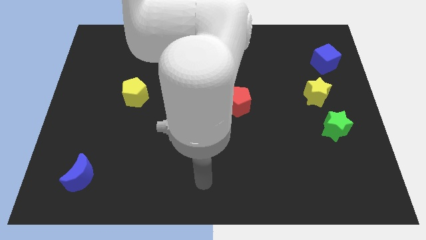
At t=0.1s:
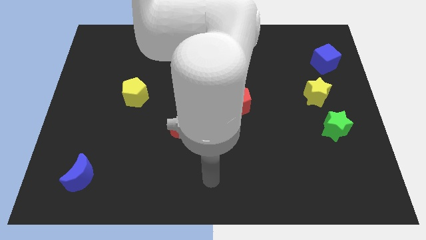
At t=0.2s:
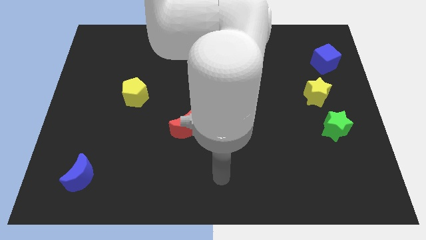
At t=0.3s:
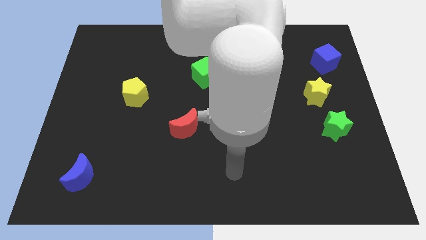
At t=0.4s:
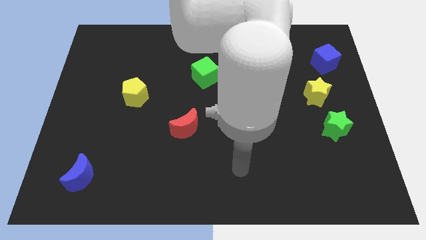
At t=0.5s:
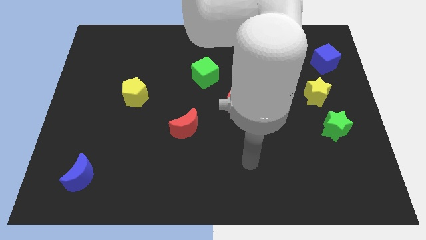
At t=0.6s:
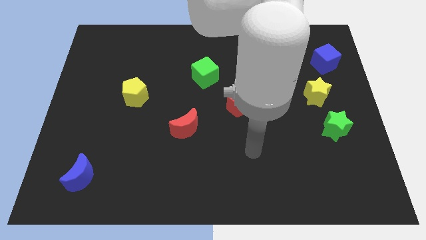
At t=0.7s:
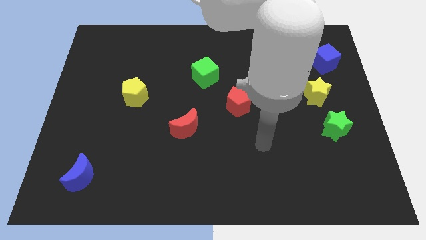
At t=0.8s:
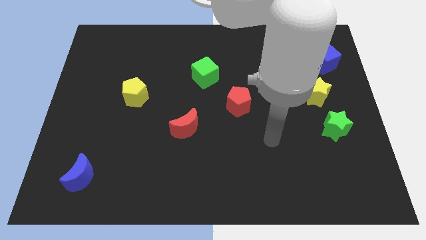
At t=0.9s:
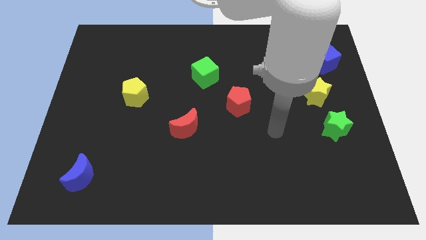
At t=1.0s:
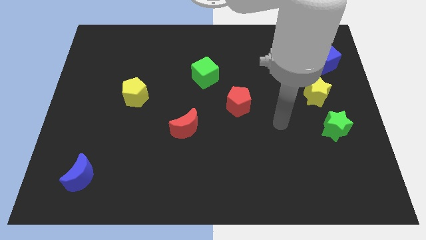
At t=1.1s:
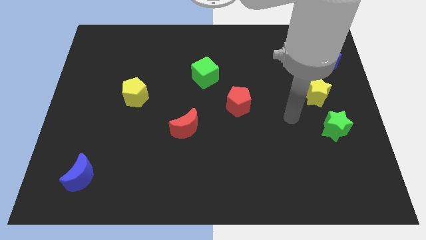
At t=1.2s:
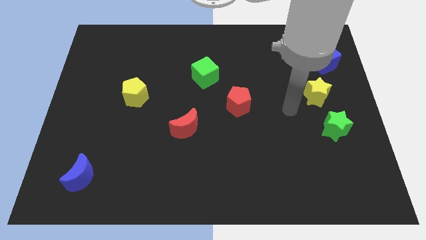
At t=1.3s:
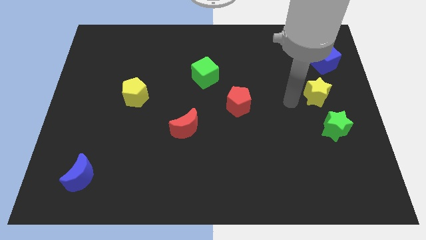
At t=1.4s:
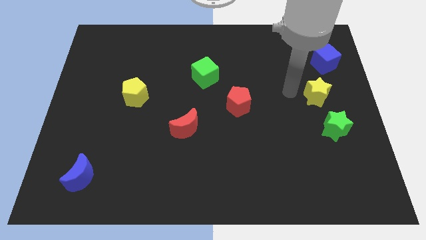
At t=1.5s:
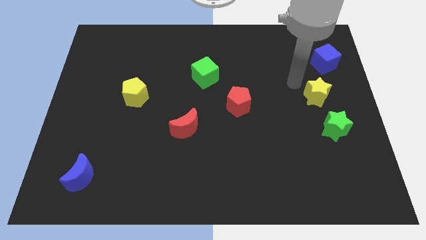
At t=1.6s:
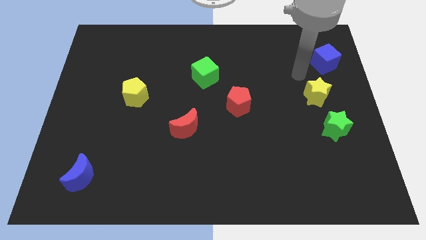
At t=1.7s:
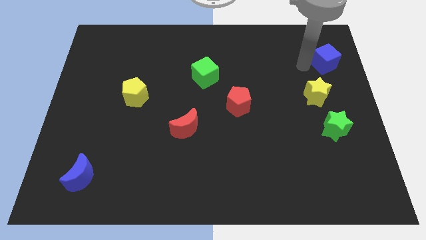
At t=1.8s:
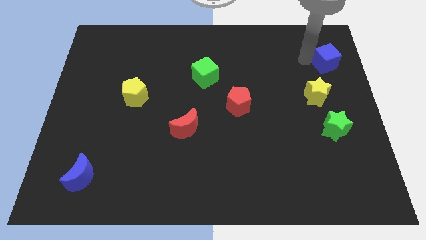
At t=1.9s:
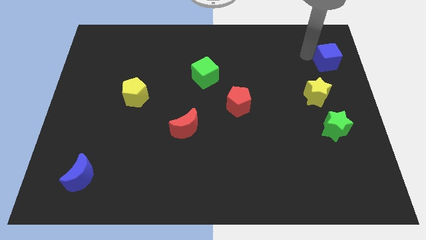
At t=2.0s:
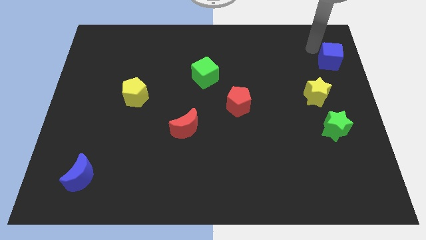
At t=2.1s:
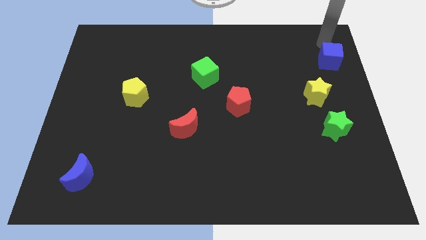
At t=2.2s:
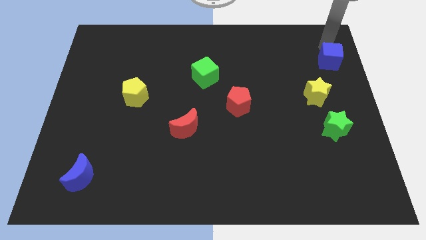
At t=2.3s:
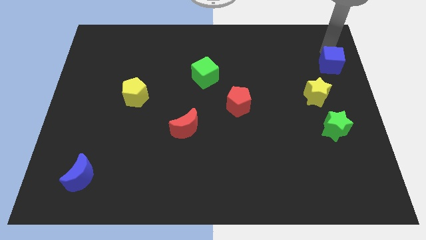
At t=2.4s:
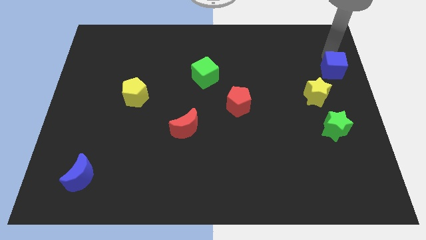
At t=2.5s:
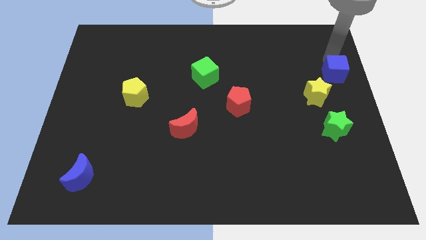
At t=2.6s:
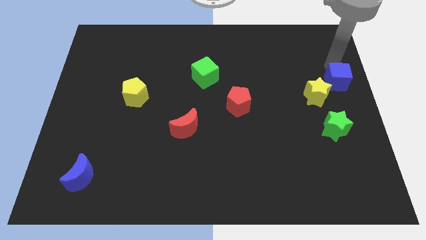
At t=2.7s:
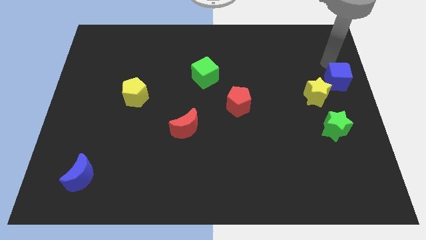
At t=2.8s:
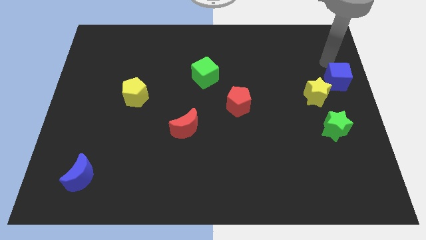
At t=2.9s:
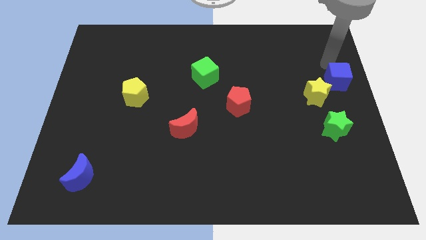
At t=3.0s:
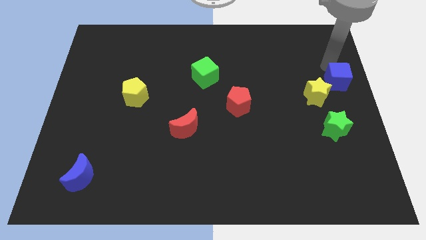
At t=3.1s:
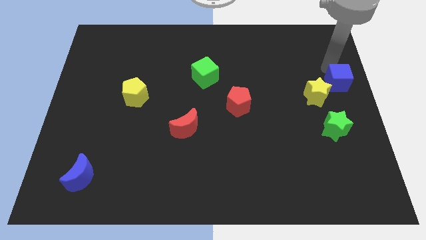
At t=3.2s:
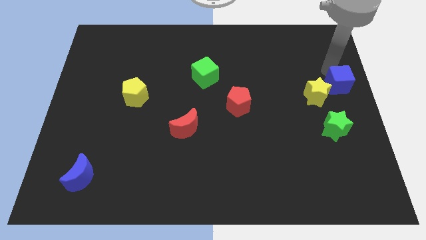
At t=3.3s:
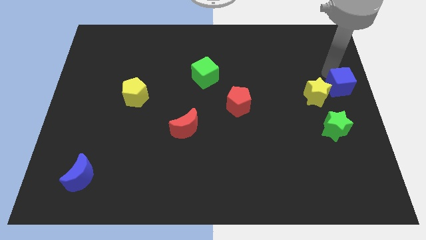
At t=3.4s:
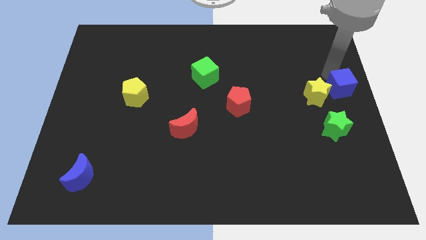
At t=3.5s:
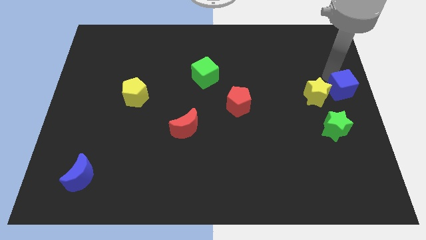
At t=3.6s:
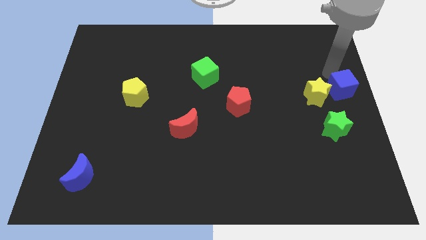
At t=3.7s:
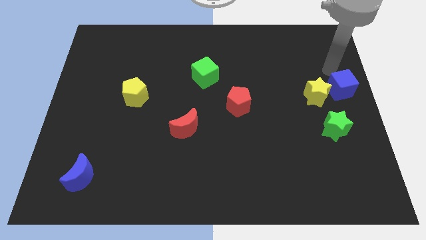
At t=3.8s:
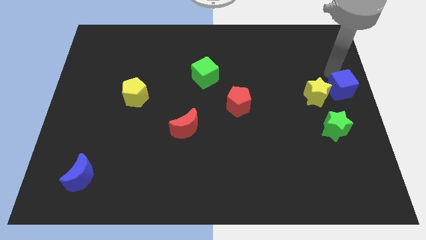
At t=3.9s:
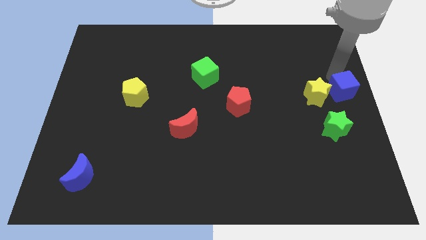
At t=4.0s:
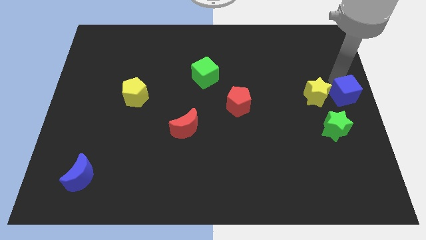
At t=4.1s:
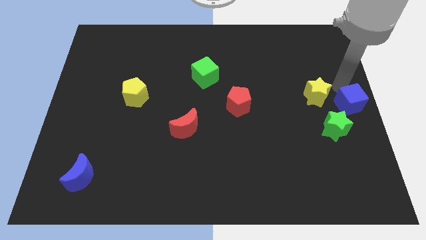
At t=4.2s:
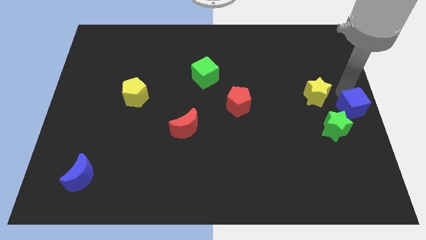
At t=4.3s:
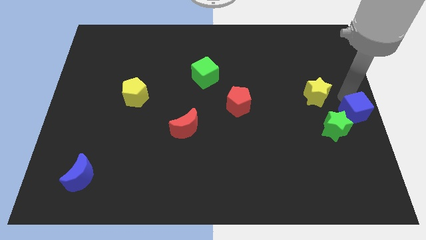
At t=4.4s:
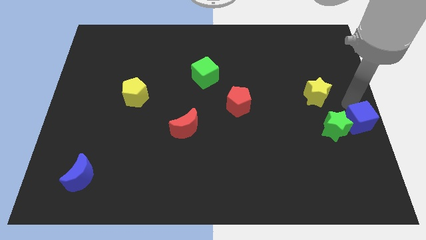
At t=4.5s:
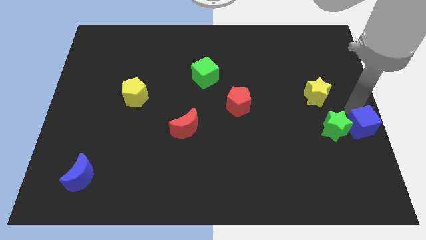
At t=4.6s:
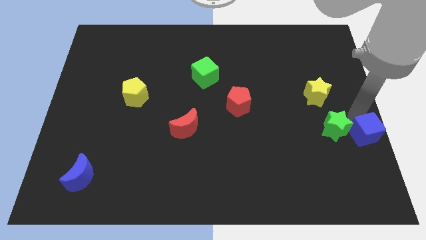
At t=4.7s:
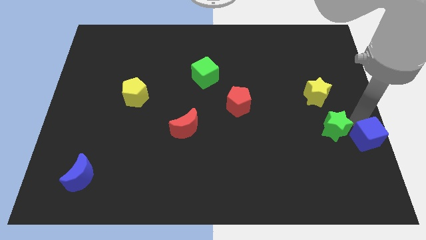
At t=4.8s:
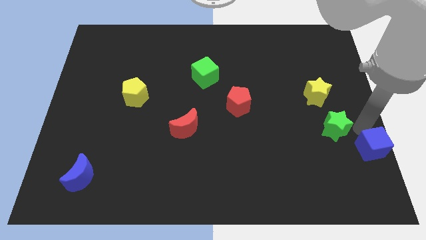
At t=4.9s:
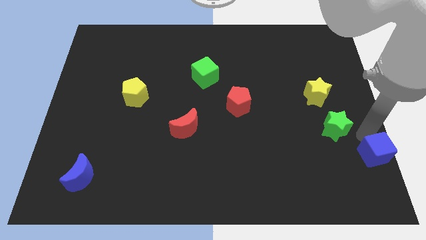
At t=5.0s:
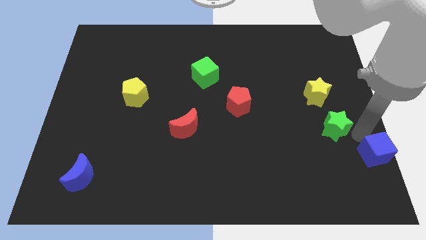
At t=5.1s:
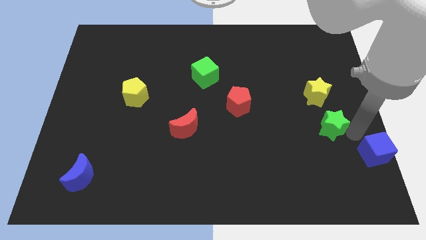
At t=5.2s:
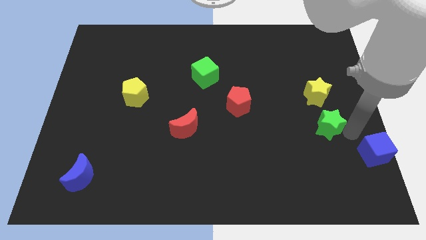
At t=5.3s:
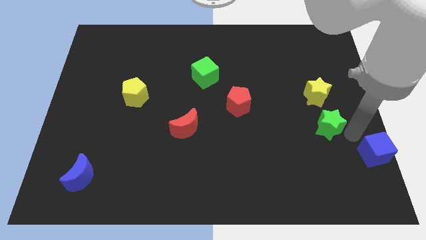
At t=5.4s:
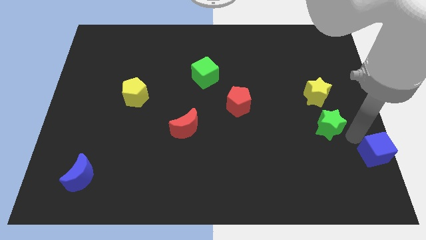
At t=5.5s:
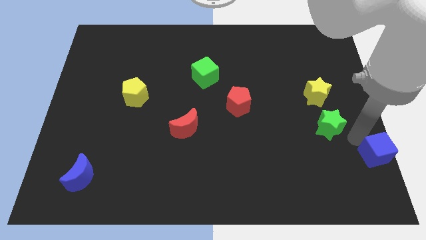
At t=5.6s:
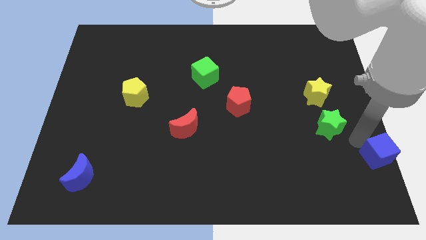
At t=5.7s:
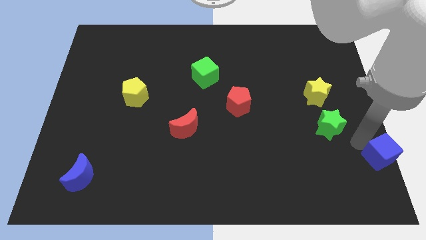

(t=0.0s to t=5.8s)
put the blue cube to the bottom right corner

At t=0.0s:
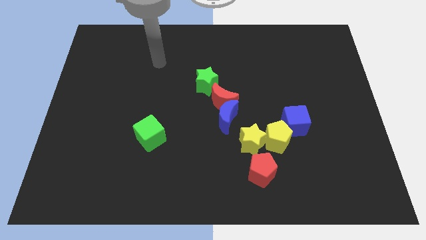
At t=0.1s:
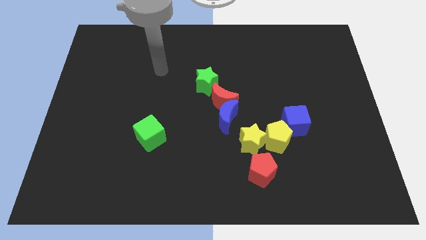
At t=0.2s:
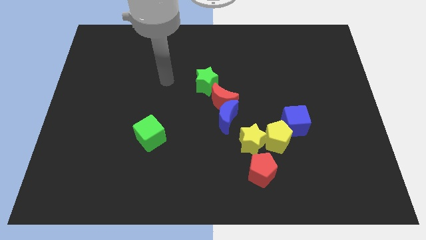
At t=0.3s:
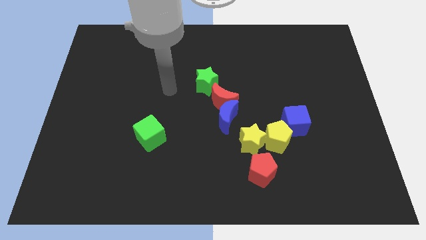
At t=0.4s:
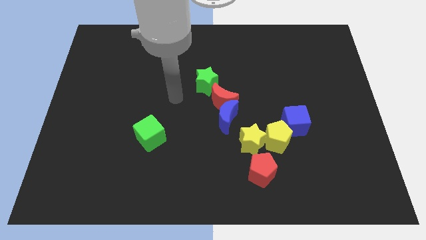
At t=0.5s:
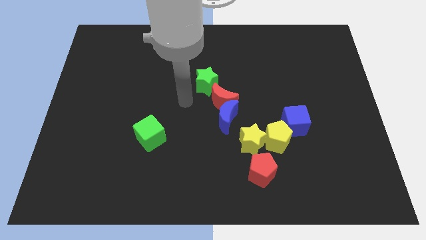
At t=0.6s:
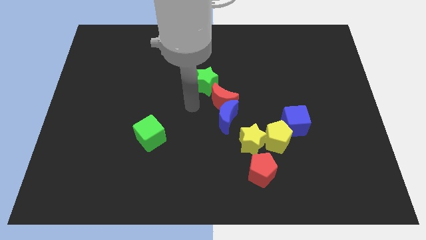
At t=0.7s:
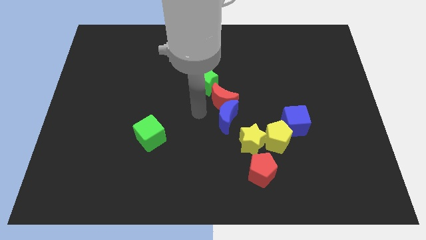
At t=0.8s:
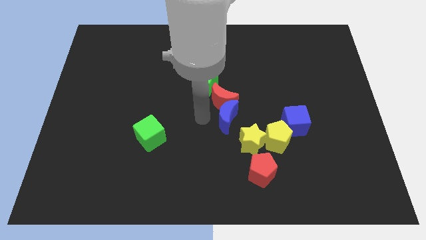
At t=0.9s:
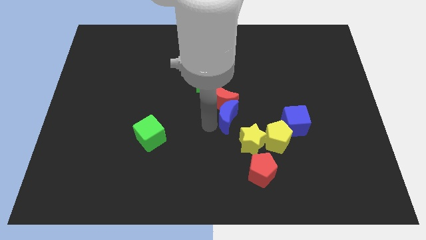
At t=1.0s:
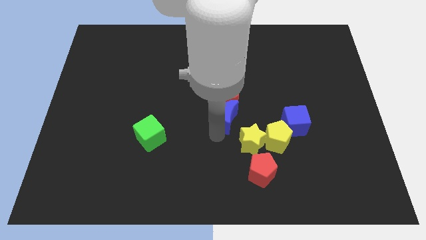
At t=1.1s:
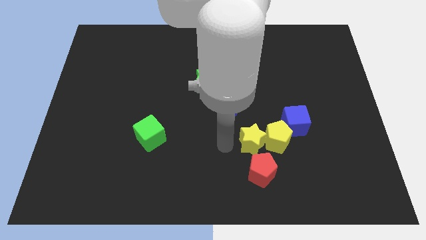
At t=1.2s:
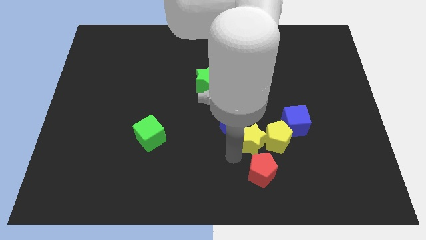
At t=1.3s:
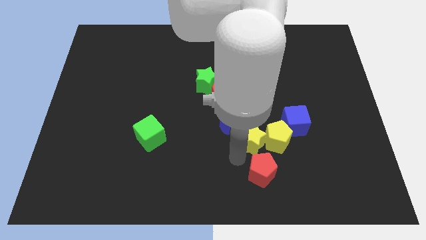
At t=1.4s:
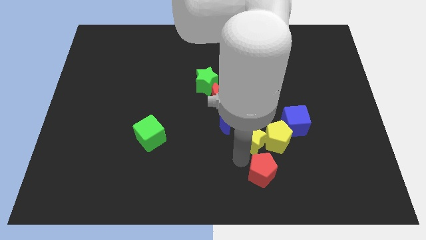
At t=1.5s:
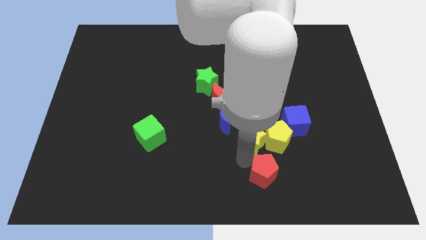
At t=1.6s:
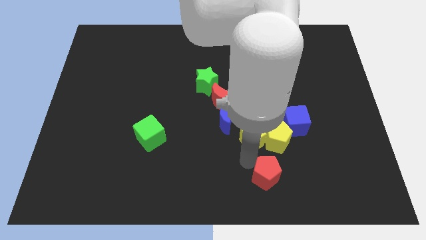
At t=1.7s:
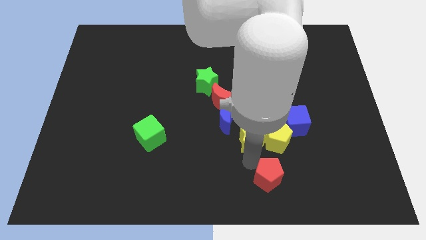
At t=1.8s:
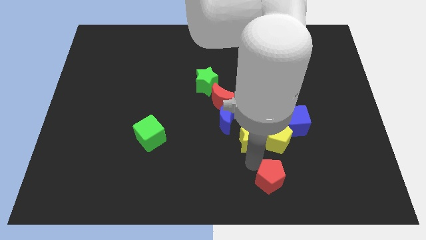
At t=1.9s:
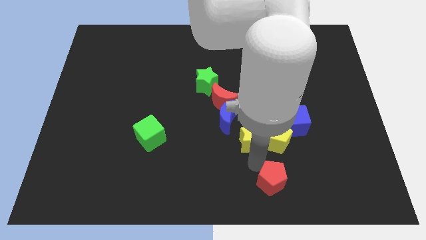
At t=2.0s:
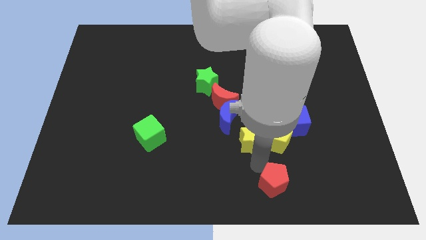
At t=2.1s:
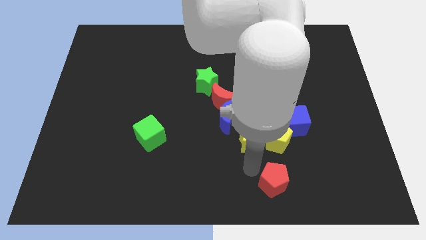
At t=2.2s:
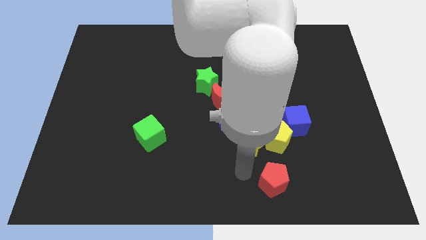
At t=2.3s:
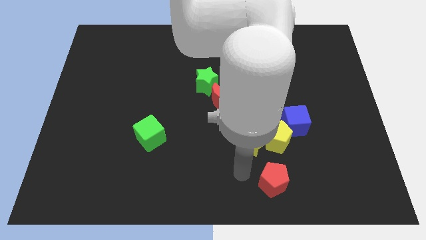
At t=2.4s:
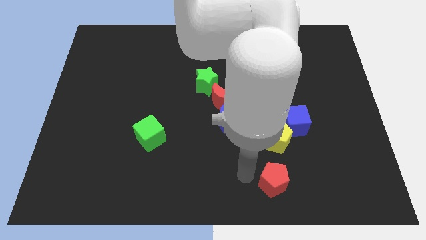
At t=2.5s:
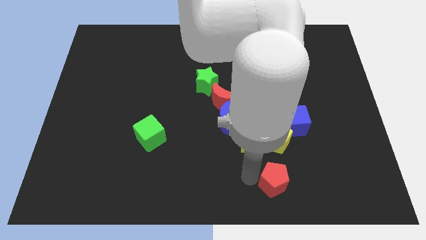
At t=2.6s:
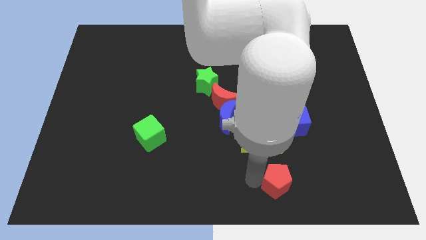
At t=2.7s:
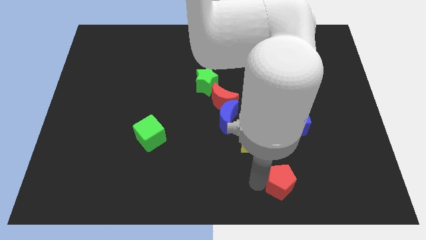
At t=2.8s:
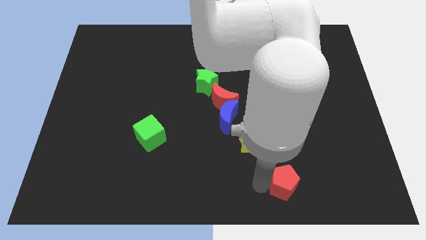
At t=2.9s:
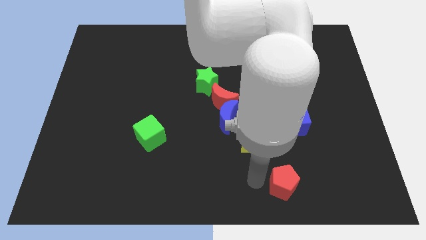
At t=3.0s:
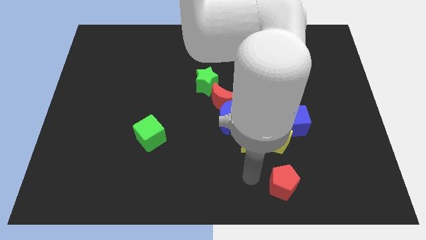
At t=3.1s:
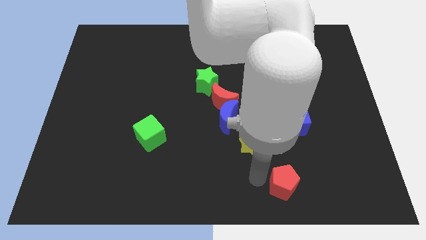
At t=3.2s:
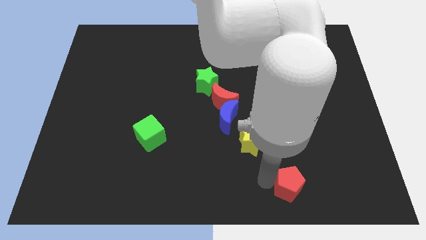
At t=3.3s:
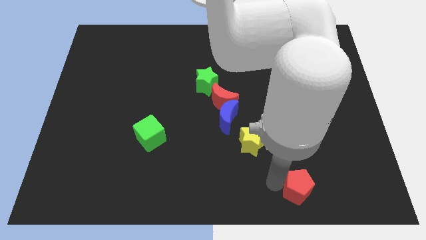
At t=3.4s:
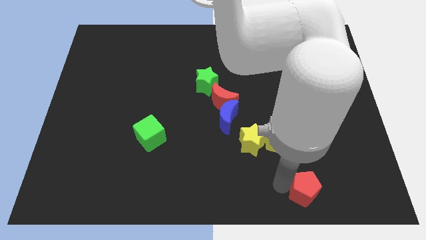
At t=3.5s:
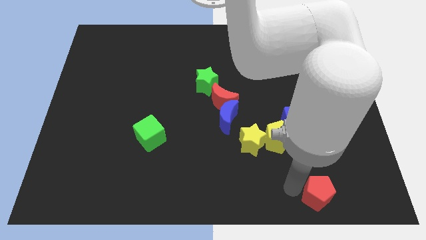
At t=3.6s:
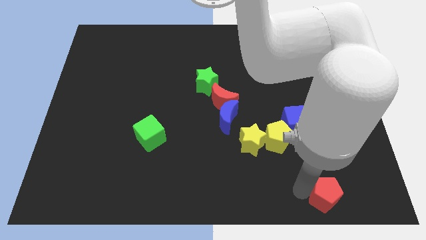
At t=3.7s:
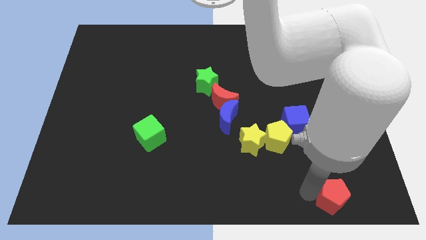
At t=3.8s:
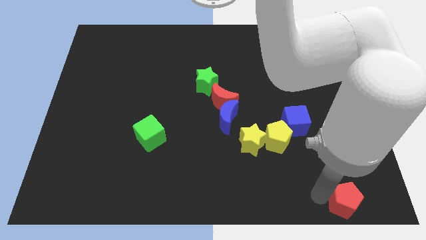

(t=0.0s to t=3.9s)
move the red pentagon to the bottom right of the board
